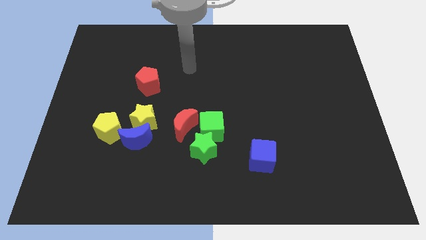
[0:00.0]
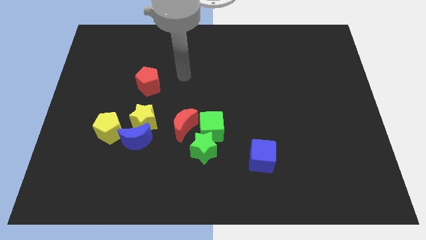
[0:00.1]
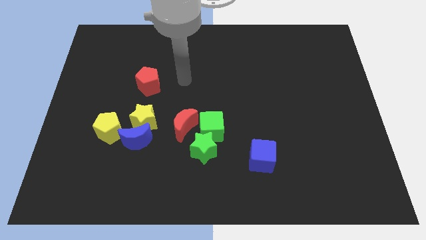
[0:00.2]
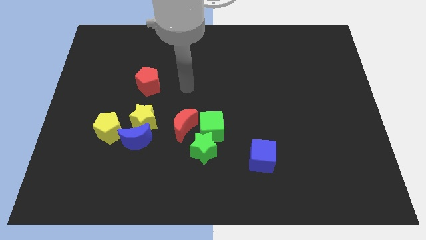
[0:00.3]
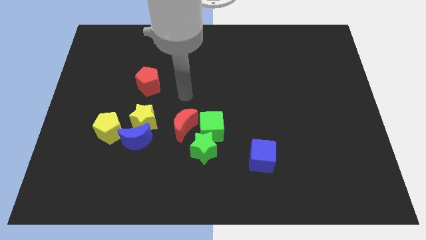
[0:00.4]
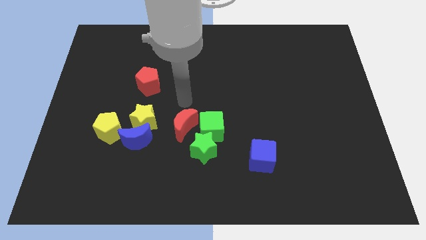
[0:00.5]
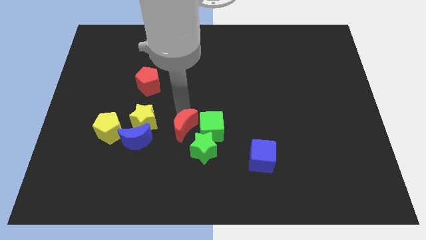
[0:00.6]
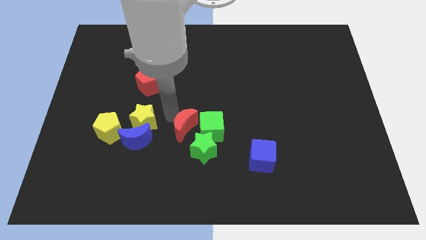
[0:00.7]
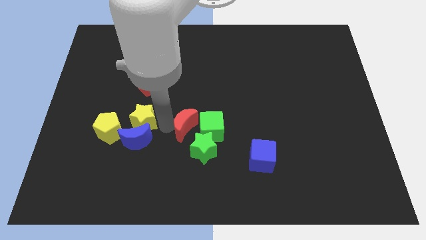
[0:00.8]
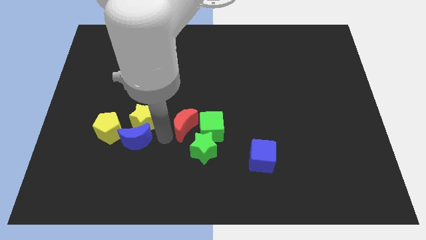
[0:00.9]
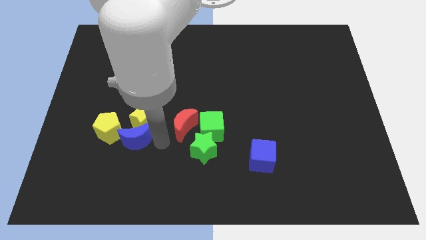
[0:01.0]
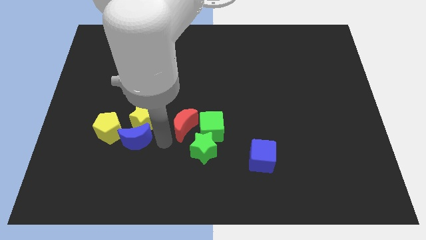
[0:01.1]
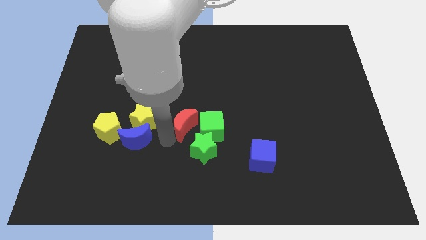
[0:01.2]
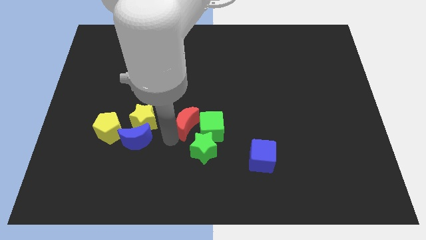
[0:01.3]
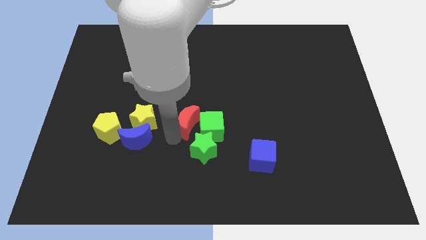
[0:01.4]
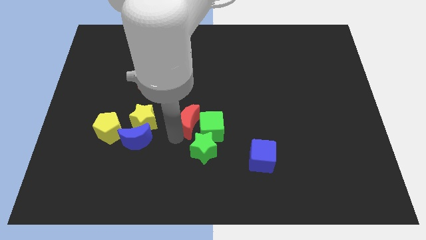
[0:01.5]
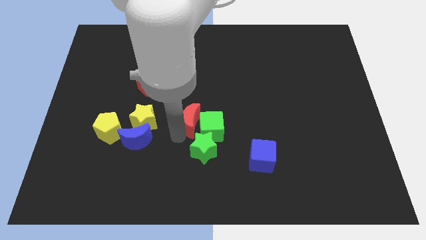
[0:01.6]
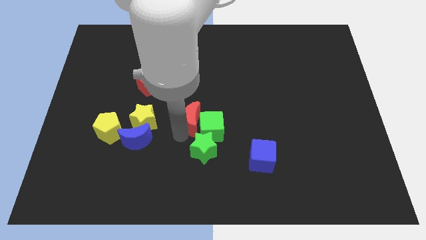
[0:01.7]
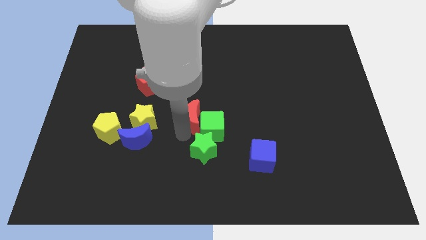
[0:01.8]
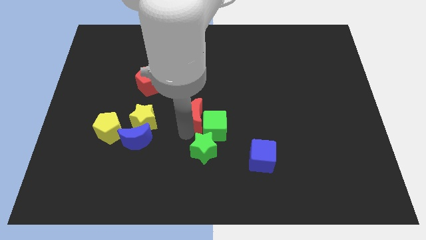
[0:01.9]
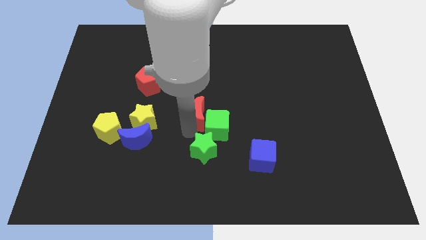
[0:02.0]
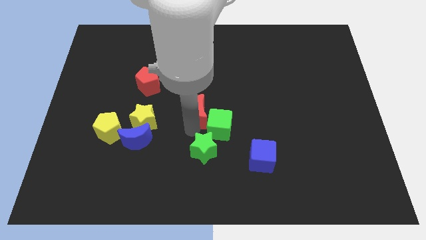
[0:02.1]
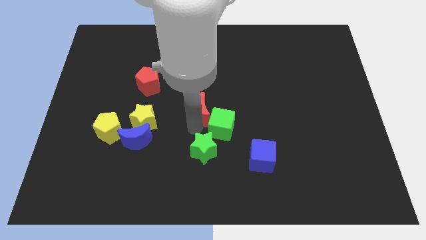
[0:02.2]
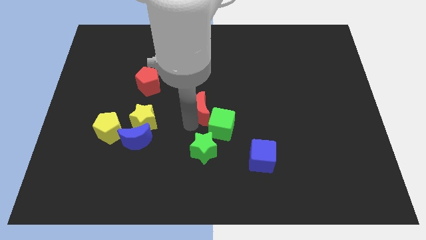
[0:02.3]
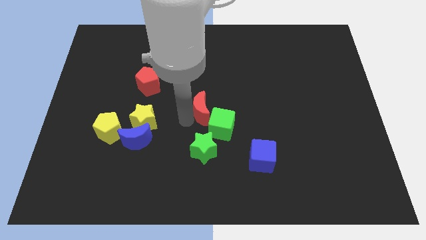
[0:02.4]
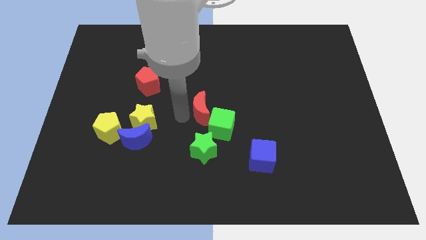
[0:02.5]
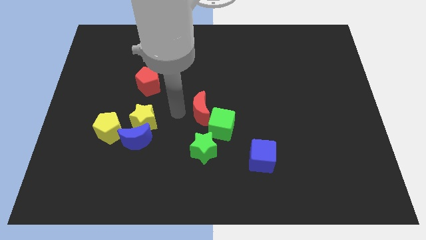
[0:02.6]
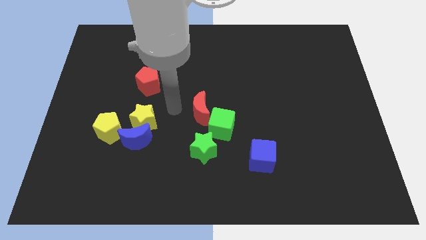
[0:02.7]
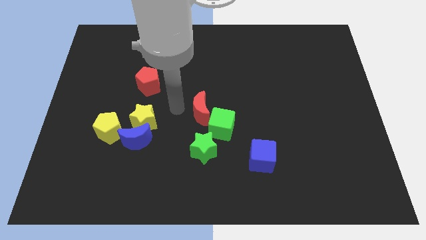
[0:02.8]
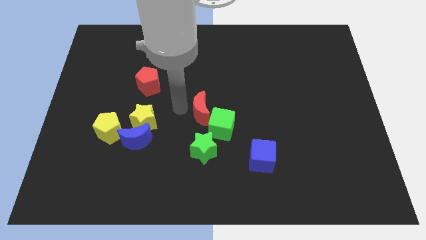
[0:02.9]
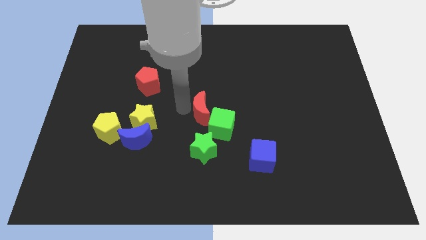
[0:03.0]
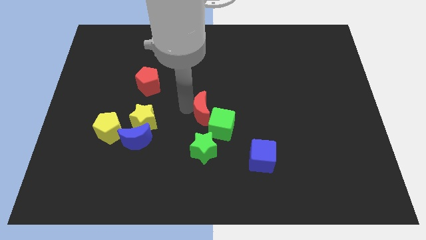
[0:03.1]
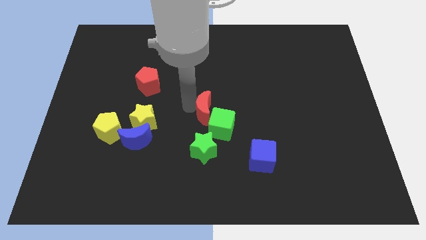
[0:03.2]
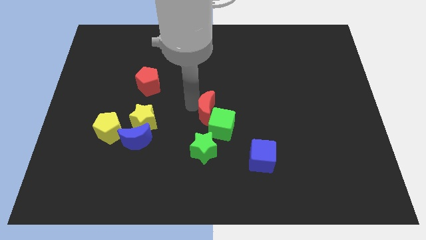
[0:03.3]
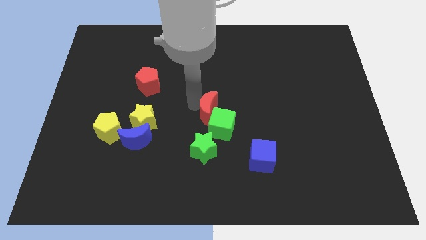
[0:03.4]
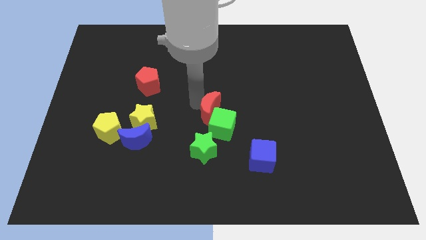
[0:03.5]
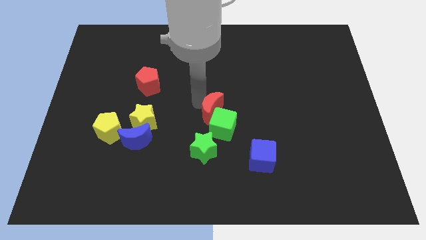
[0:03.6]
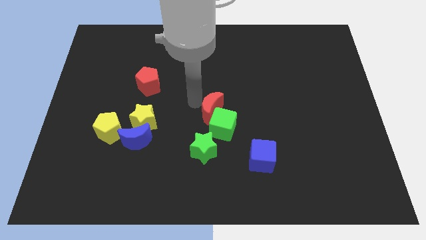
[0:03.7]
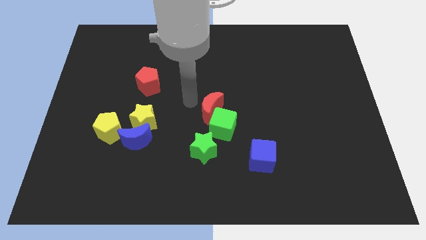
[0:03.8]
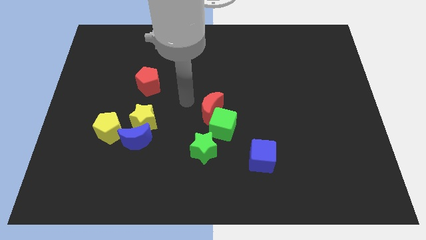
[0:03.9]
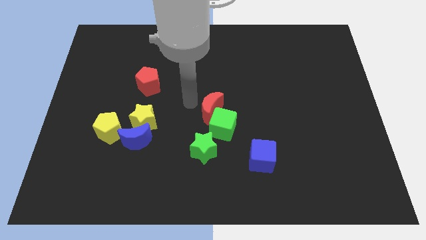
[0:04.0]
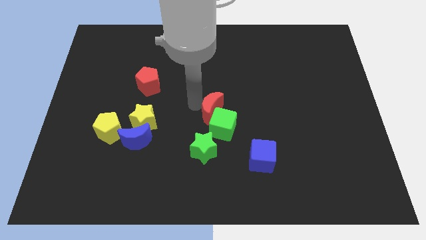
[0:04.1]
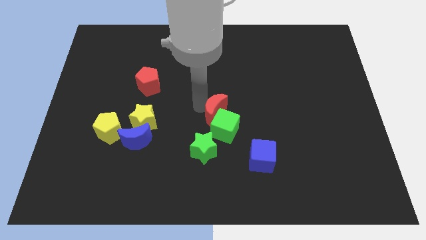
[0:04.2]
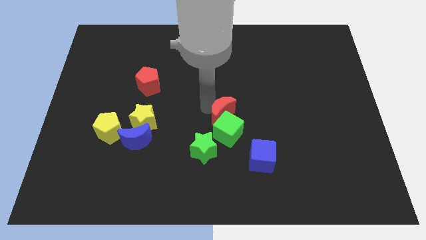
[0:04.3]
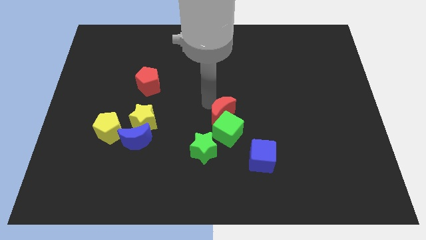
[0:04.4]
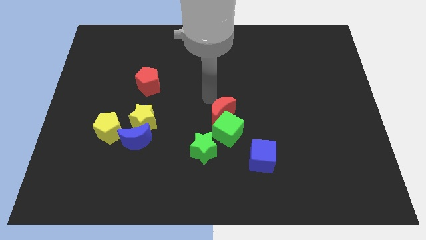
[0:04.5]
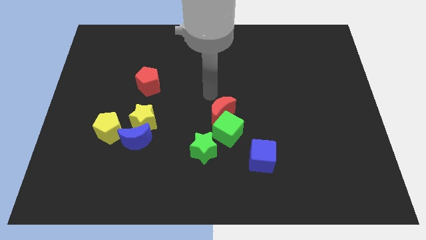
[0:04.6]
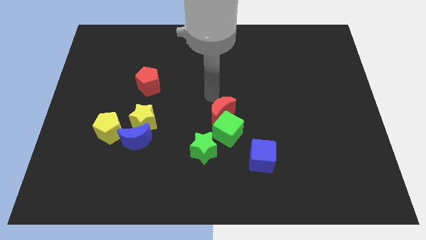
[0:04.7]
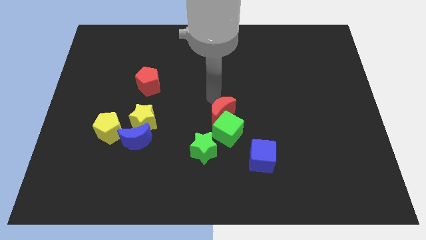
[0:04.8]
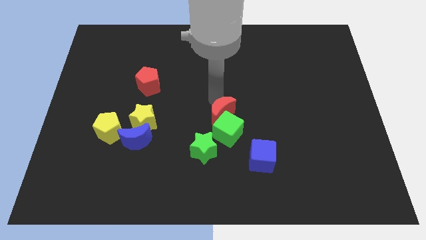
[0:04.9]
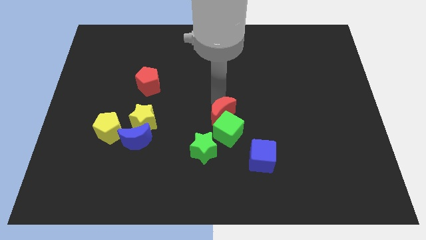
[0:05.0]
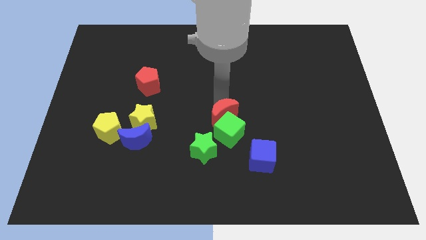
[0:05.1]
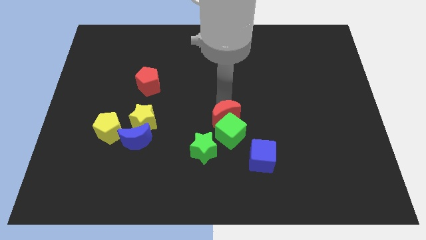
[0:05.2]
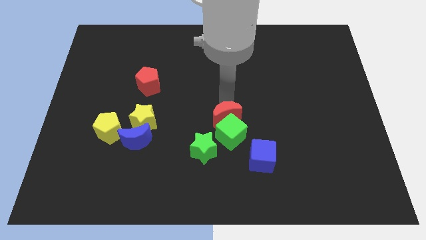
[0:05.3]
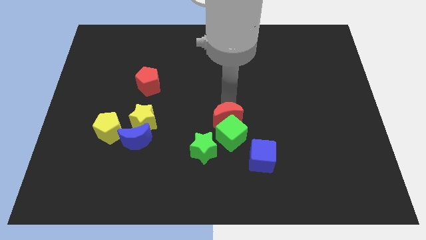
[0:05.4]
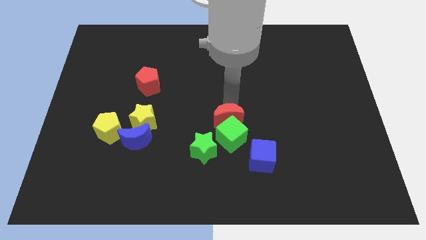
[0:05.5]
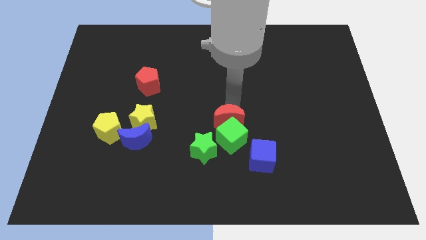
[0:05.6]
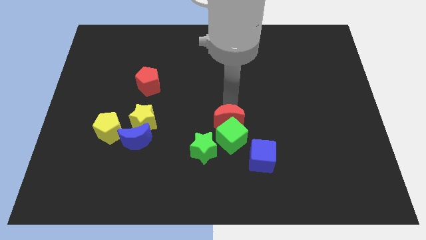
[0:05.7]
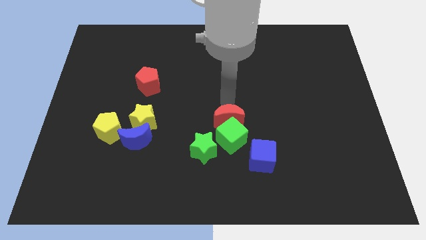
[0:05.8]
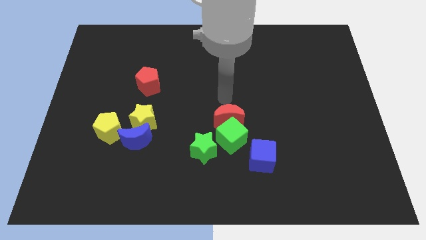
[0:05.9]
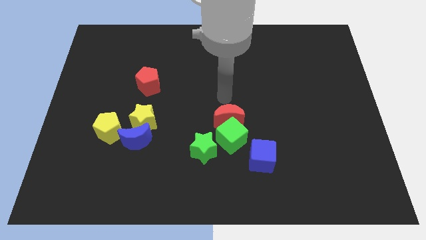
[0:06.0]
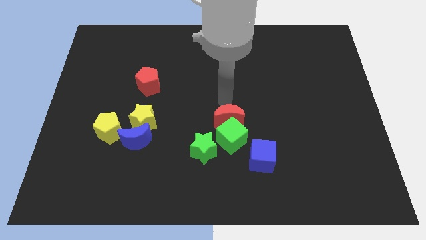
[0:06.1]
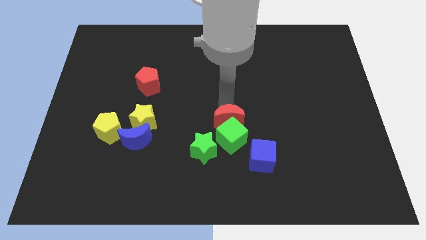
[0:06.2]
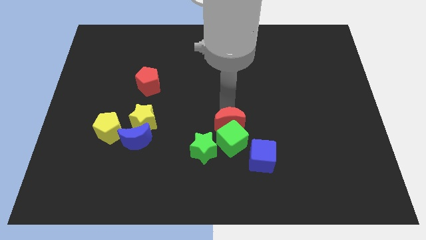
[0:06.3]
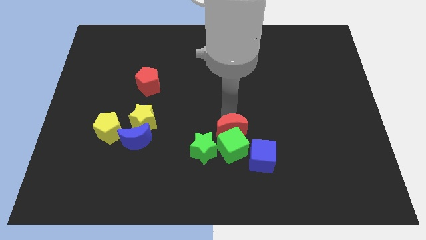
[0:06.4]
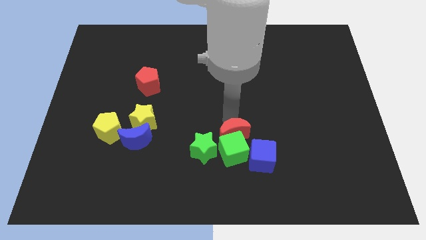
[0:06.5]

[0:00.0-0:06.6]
slightly move the red moon downwards and right

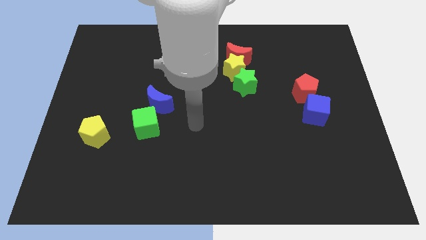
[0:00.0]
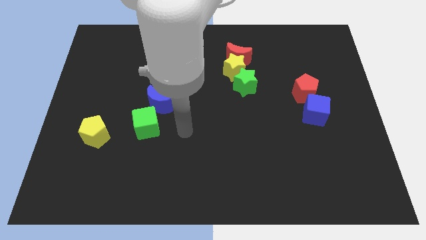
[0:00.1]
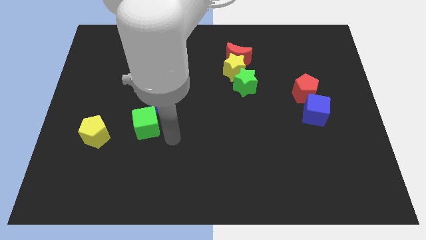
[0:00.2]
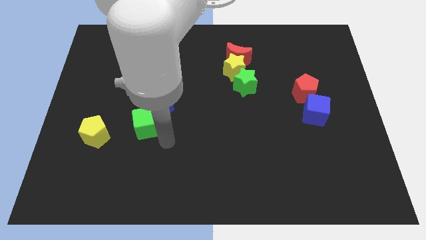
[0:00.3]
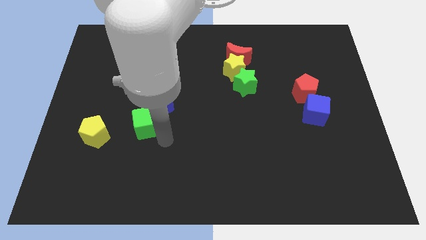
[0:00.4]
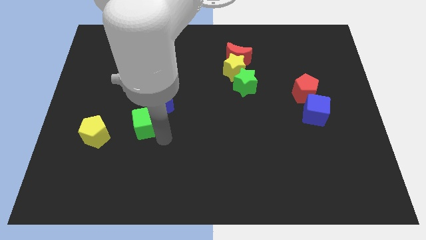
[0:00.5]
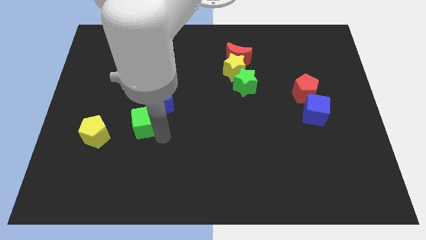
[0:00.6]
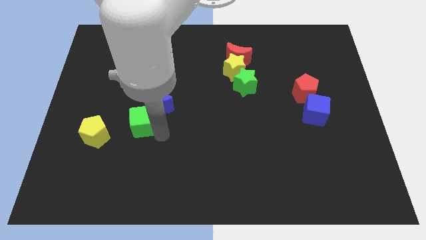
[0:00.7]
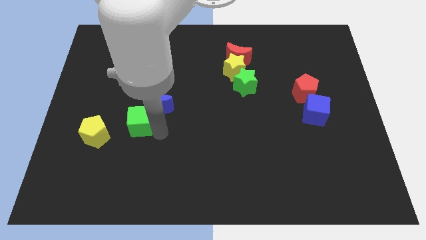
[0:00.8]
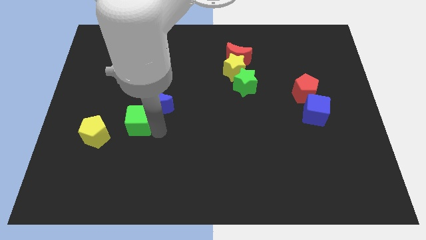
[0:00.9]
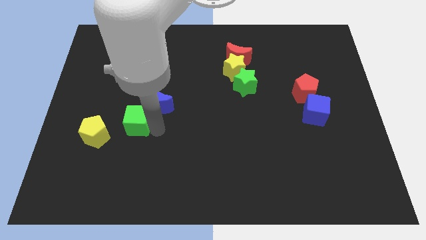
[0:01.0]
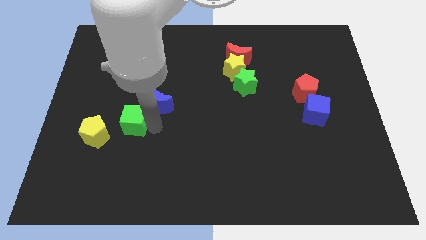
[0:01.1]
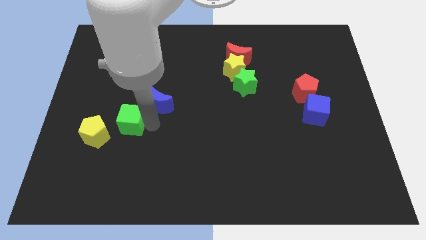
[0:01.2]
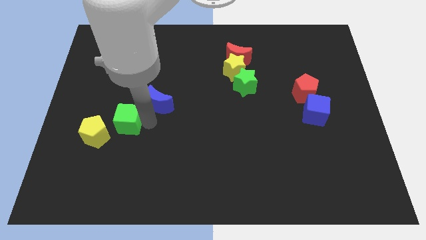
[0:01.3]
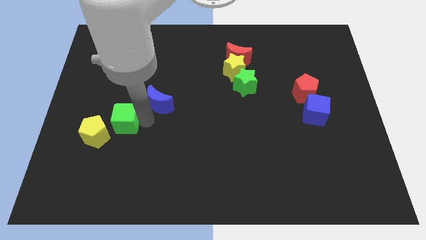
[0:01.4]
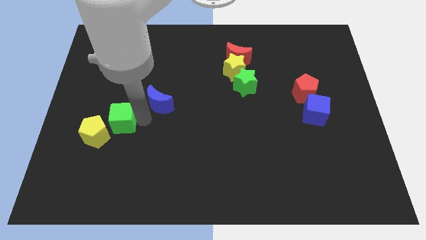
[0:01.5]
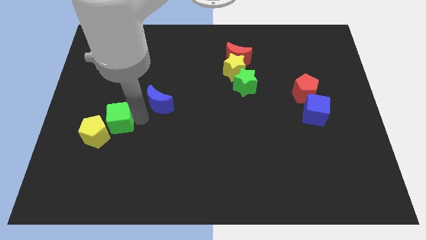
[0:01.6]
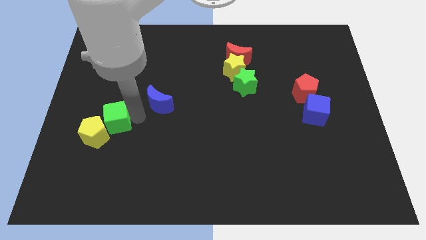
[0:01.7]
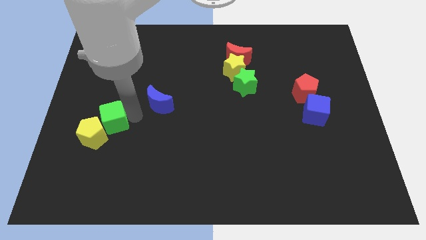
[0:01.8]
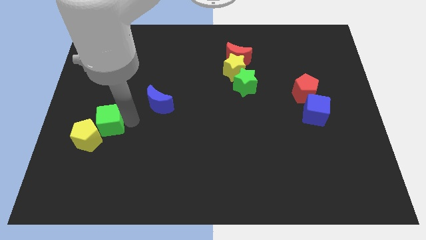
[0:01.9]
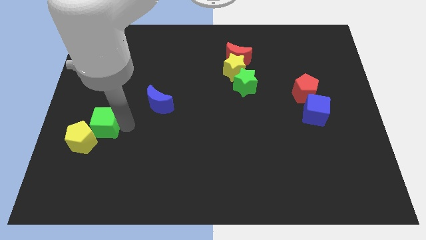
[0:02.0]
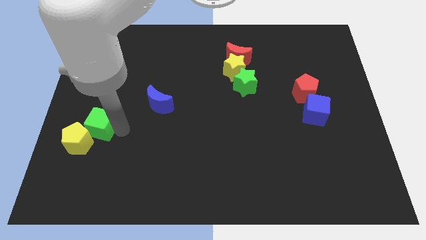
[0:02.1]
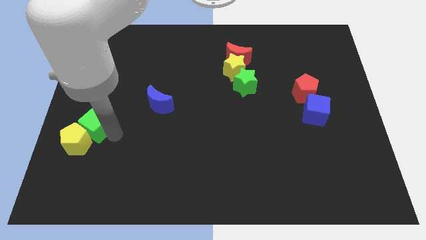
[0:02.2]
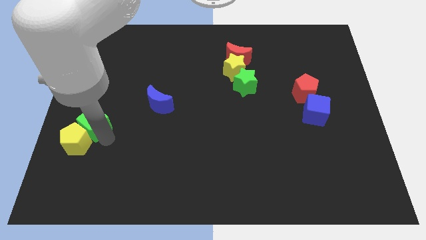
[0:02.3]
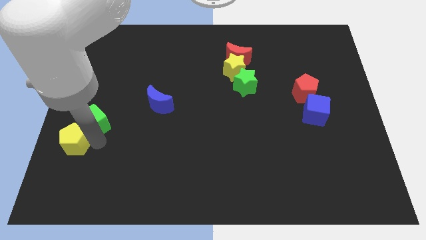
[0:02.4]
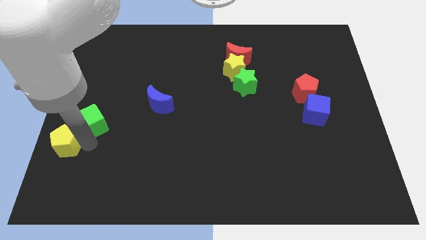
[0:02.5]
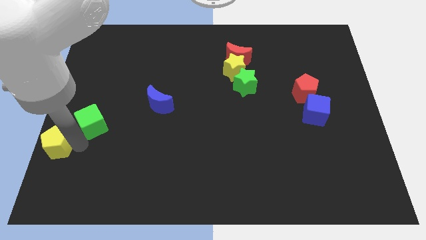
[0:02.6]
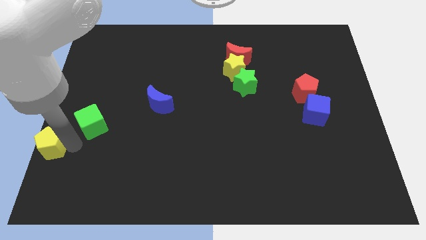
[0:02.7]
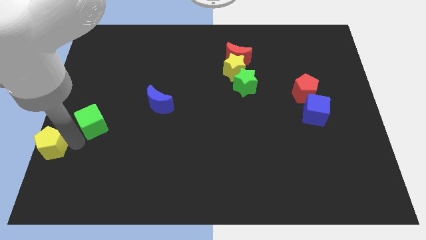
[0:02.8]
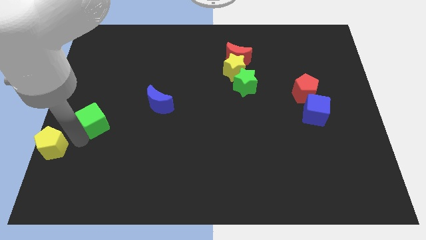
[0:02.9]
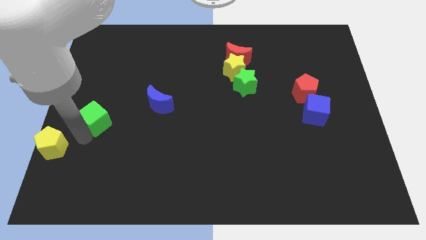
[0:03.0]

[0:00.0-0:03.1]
slightly push the green cube up and then left
